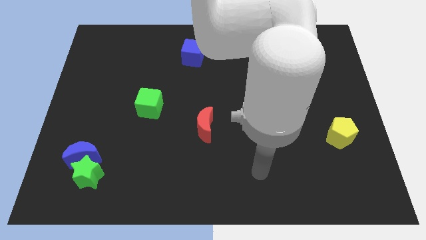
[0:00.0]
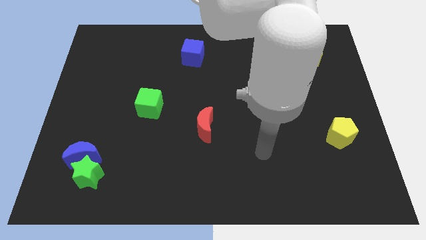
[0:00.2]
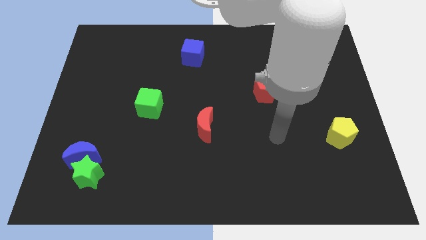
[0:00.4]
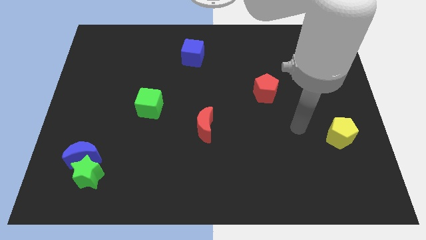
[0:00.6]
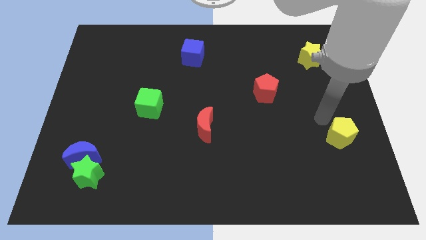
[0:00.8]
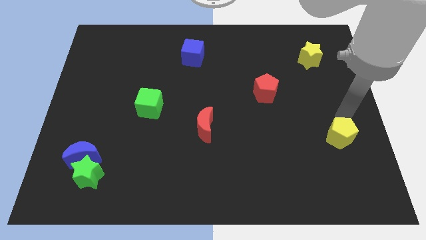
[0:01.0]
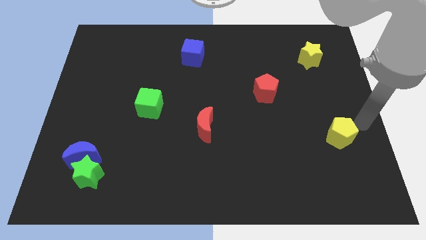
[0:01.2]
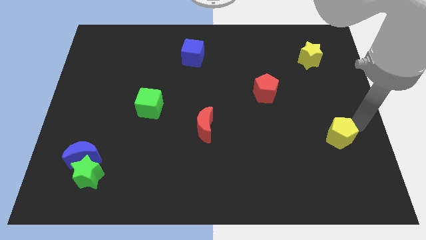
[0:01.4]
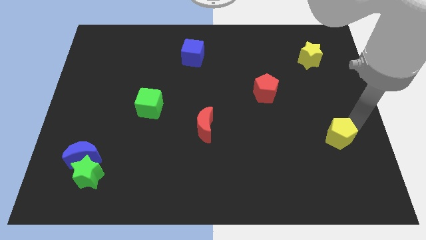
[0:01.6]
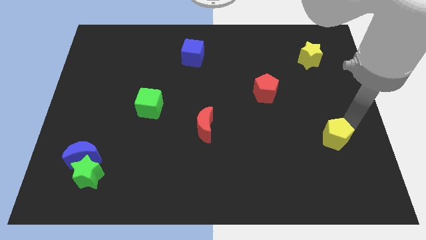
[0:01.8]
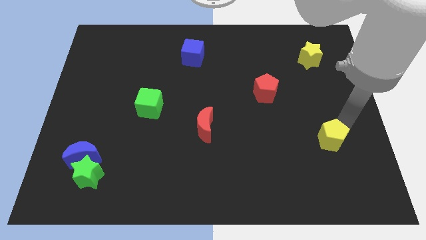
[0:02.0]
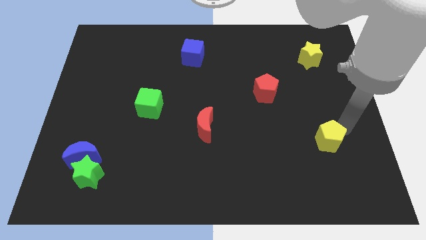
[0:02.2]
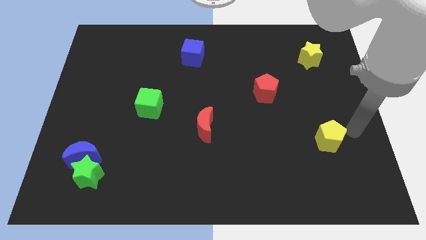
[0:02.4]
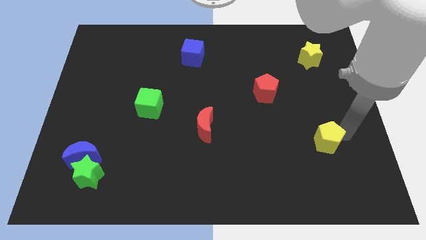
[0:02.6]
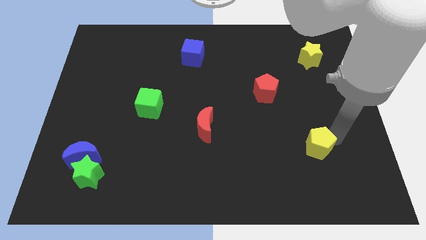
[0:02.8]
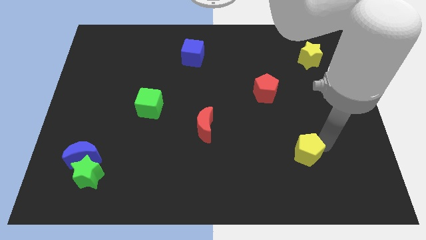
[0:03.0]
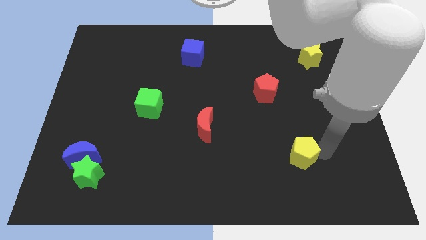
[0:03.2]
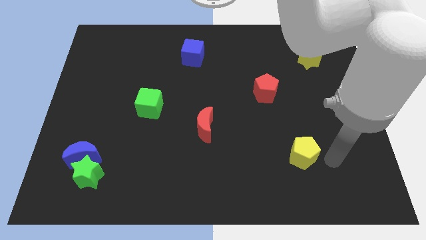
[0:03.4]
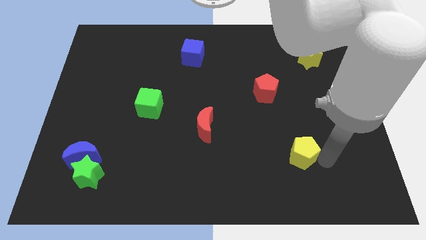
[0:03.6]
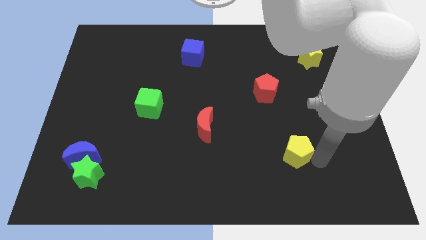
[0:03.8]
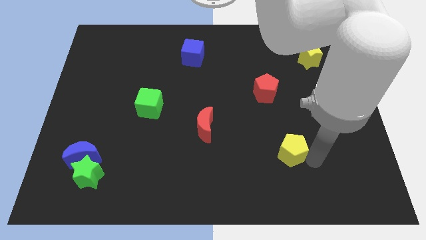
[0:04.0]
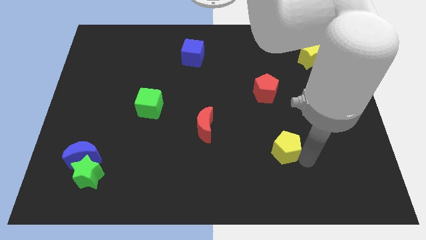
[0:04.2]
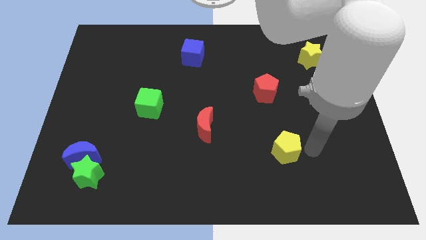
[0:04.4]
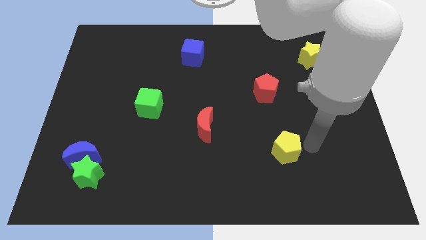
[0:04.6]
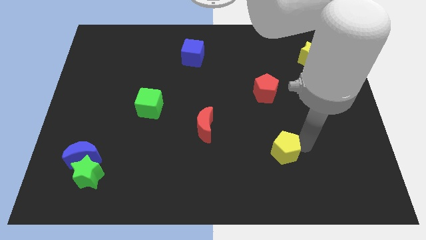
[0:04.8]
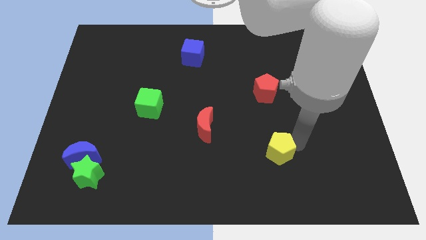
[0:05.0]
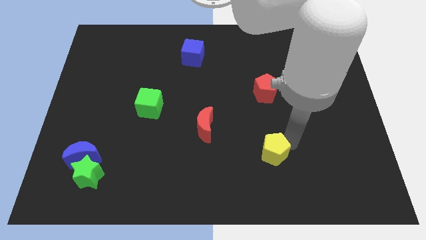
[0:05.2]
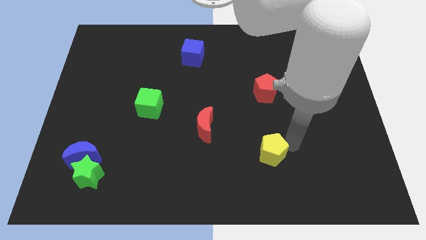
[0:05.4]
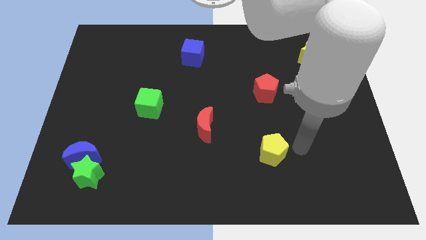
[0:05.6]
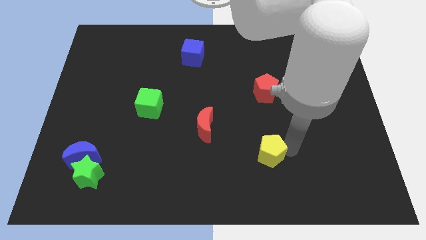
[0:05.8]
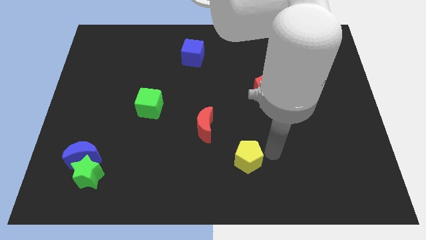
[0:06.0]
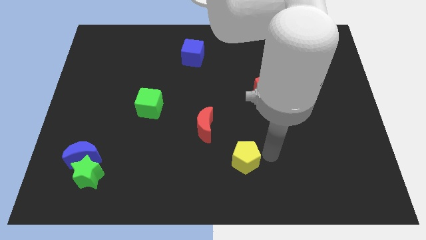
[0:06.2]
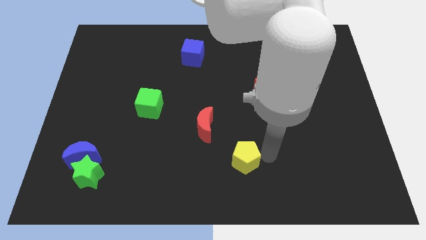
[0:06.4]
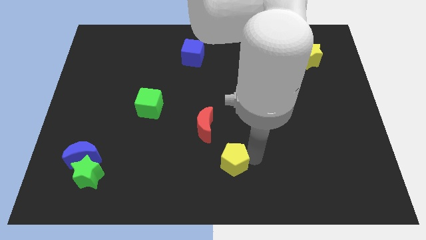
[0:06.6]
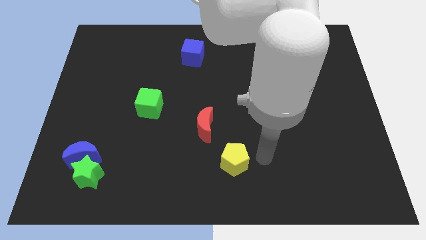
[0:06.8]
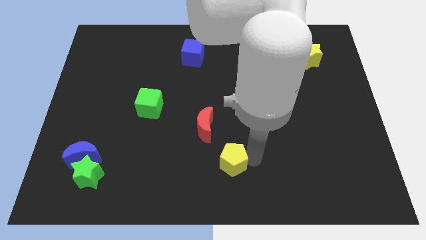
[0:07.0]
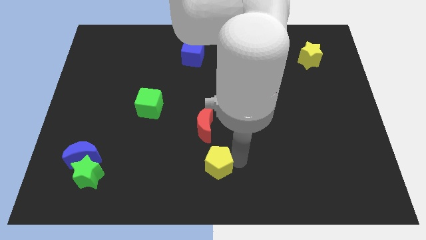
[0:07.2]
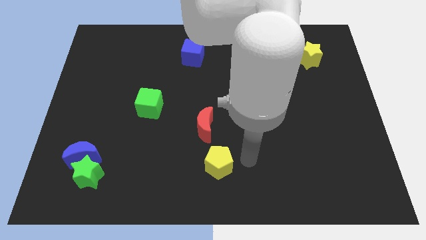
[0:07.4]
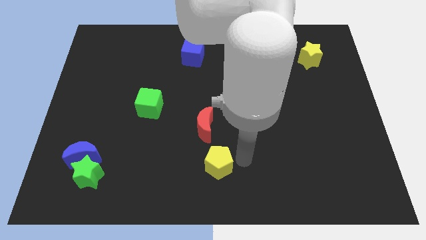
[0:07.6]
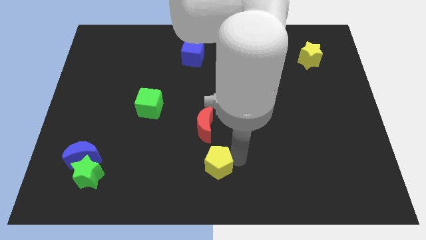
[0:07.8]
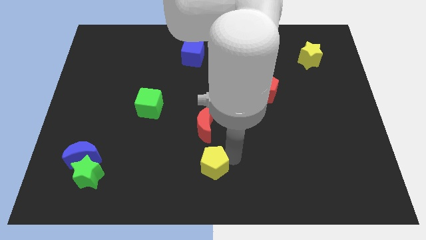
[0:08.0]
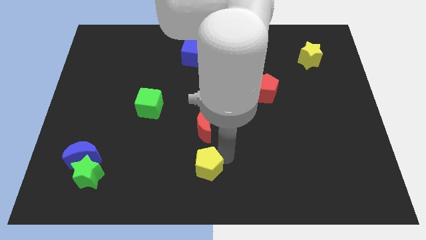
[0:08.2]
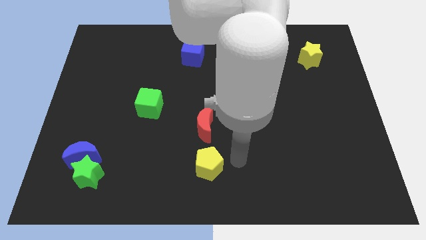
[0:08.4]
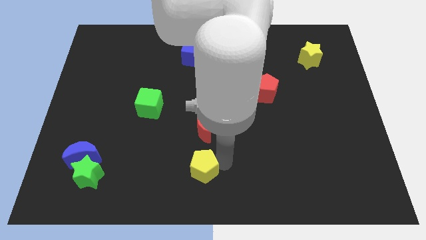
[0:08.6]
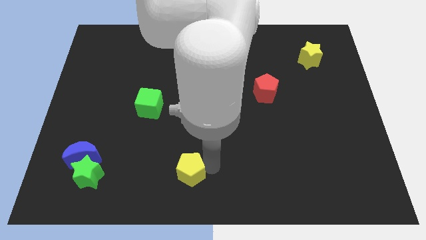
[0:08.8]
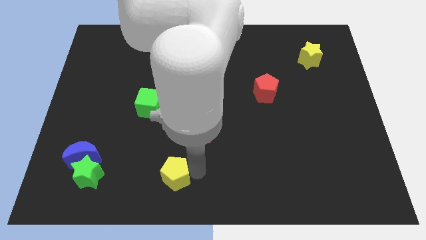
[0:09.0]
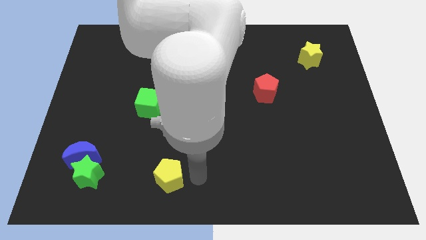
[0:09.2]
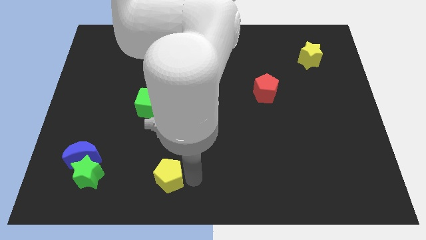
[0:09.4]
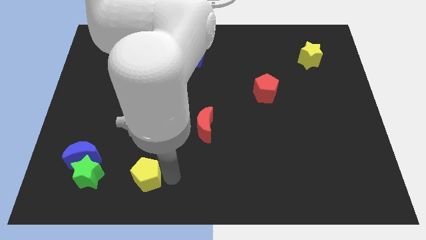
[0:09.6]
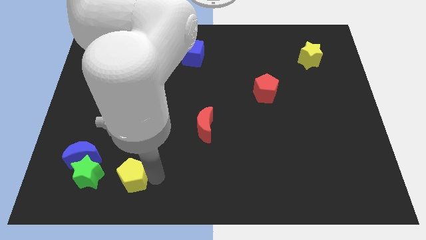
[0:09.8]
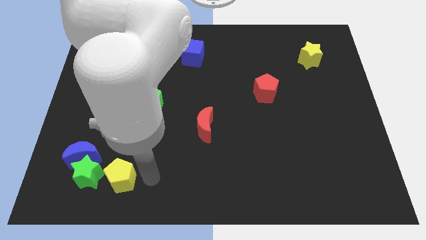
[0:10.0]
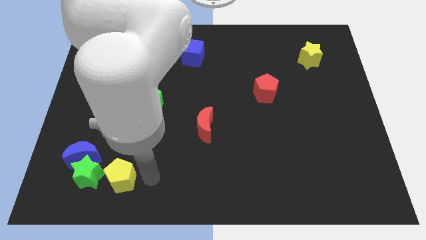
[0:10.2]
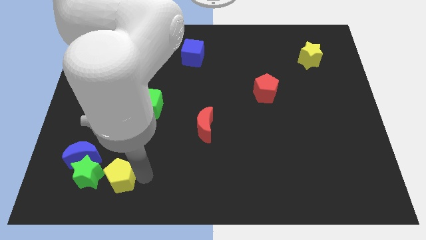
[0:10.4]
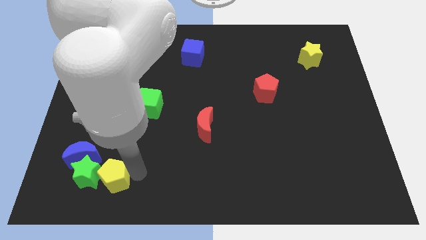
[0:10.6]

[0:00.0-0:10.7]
slide the yellow pentagon to the green star

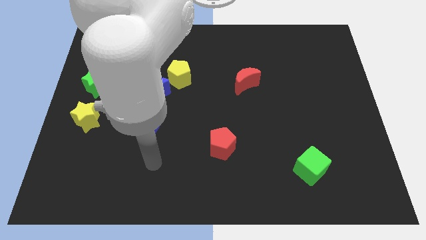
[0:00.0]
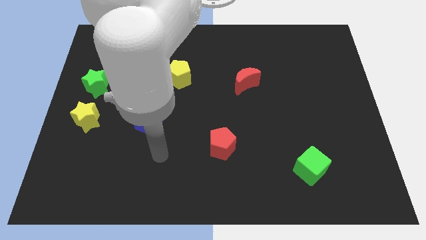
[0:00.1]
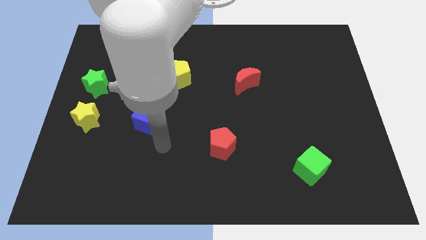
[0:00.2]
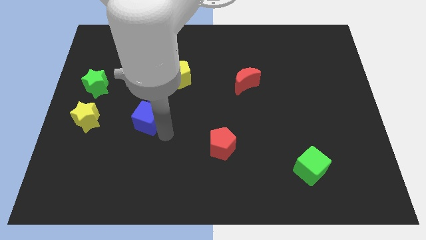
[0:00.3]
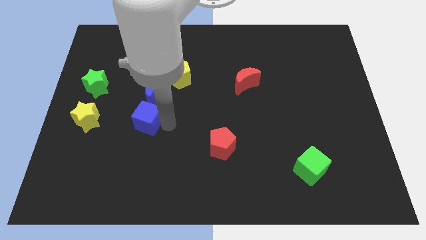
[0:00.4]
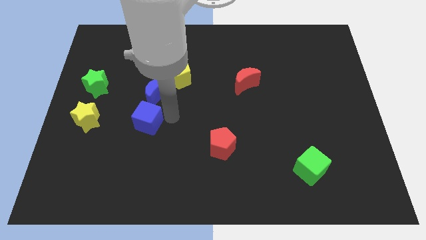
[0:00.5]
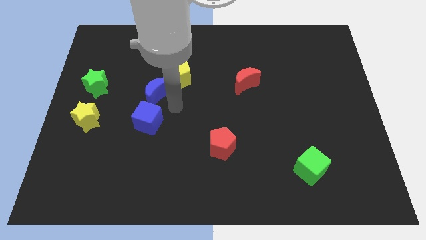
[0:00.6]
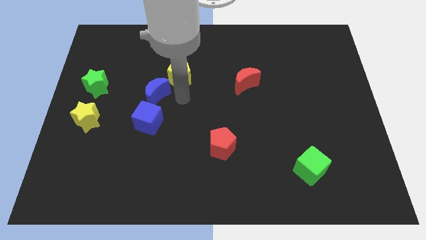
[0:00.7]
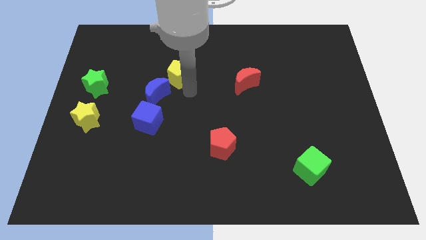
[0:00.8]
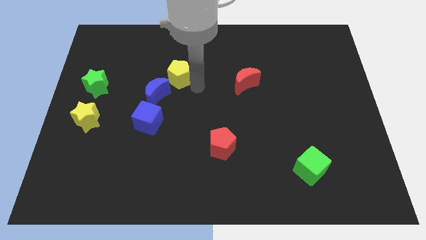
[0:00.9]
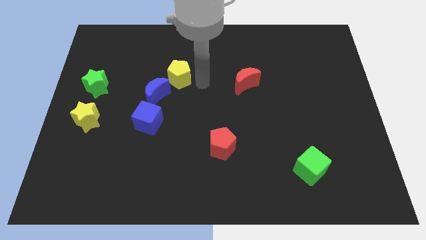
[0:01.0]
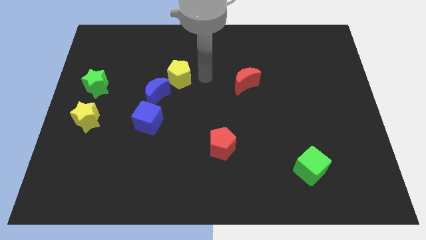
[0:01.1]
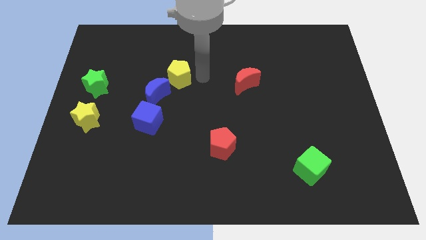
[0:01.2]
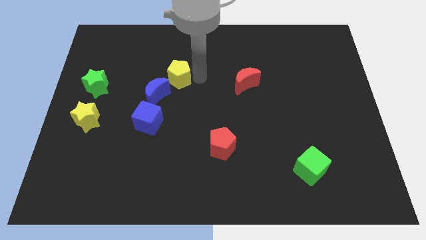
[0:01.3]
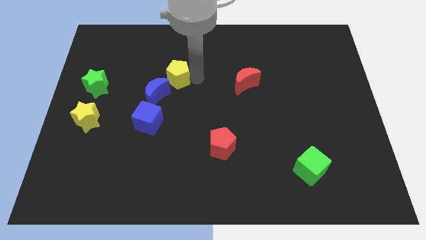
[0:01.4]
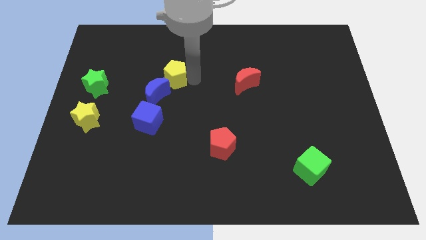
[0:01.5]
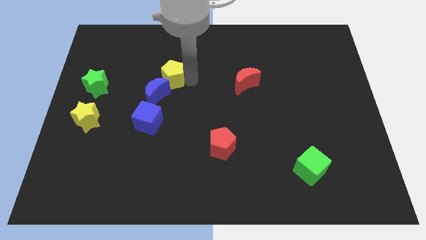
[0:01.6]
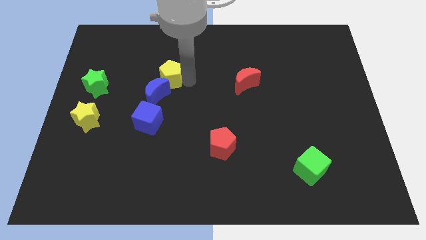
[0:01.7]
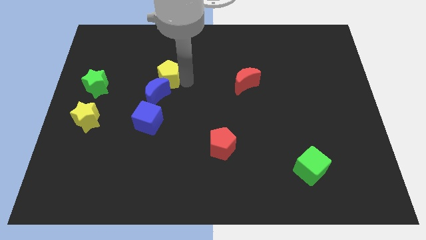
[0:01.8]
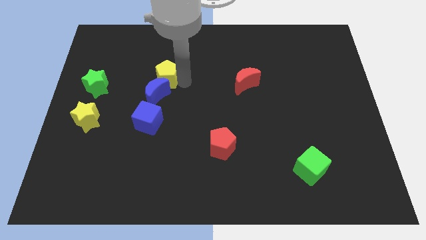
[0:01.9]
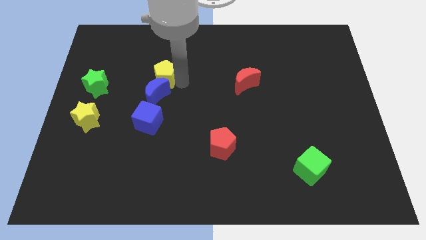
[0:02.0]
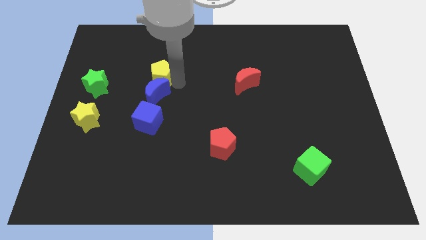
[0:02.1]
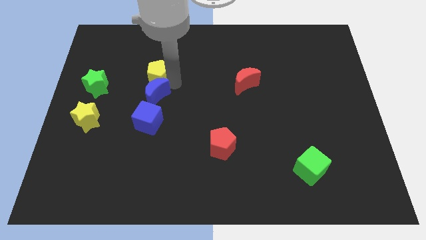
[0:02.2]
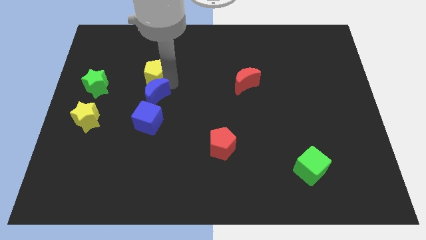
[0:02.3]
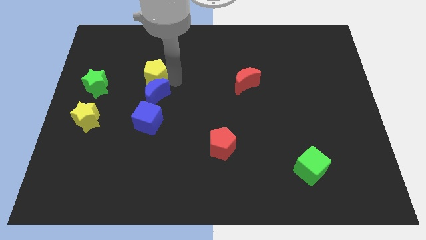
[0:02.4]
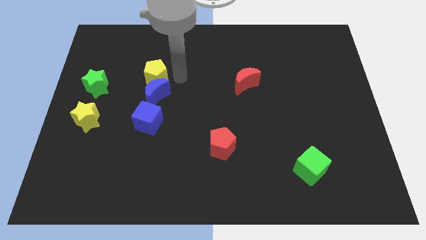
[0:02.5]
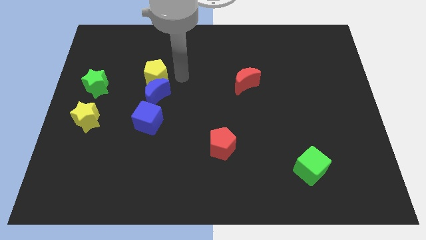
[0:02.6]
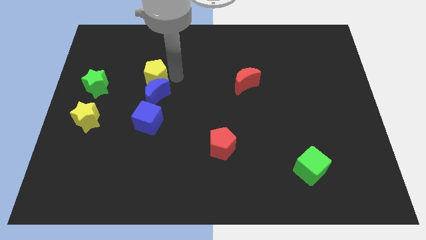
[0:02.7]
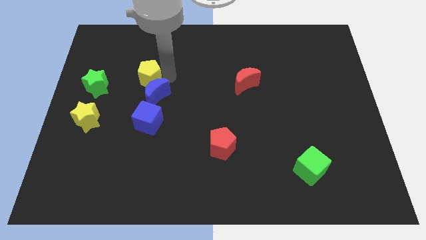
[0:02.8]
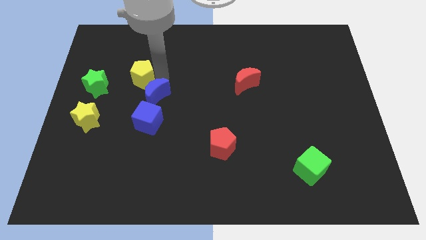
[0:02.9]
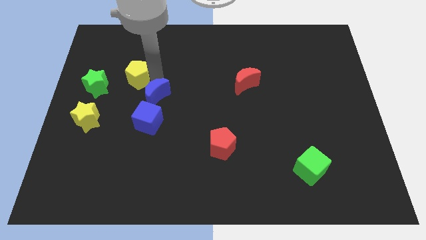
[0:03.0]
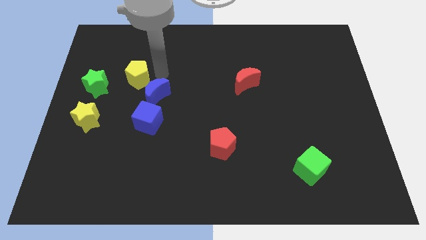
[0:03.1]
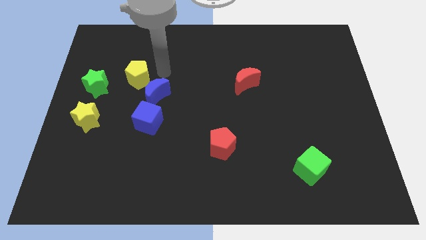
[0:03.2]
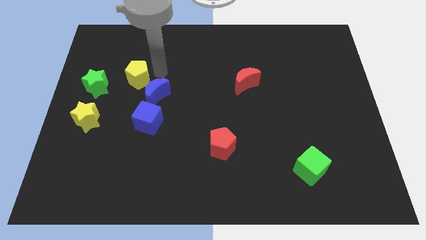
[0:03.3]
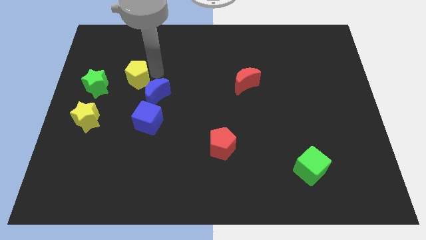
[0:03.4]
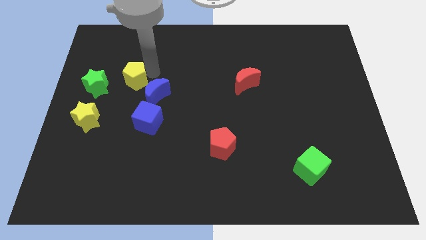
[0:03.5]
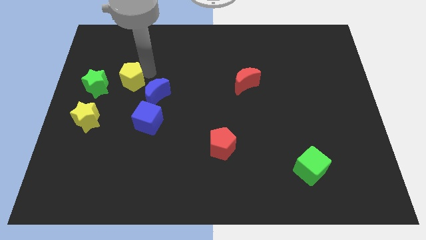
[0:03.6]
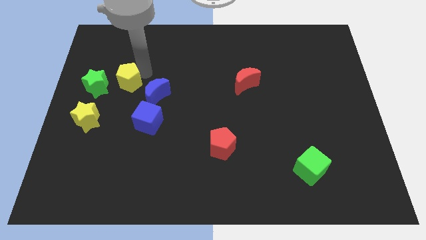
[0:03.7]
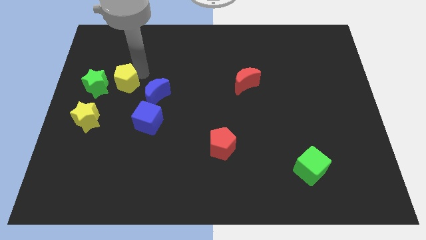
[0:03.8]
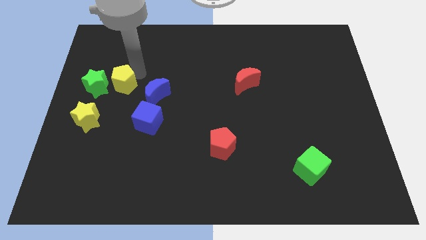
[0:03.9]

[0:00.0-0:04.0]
put the yellow pentagon close to the green star
